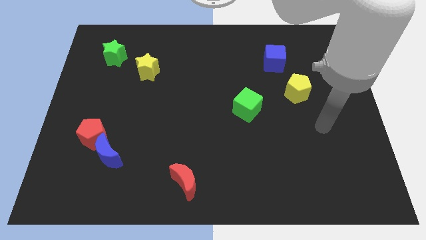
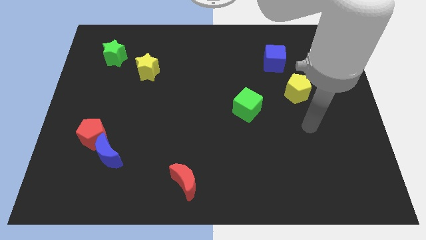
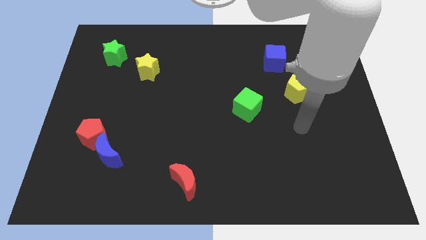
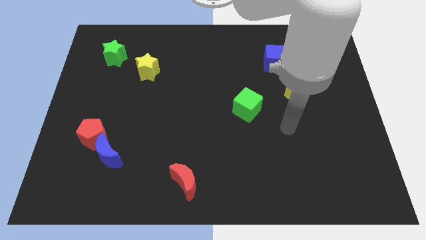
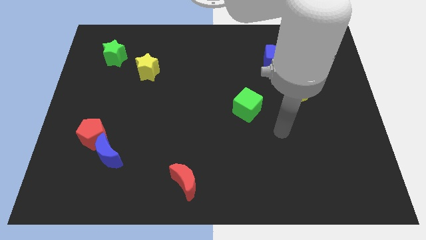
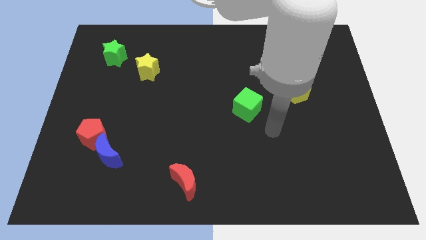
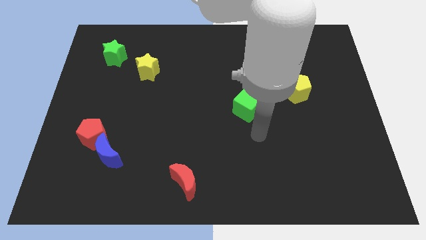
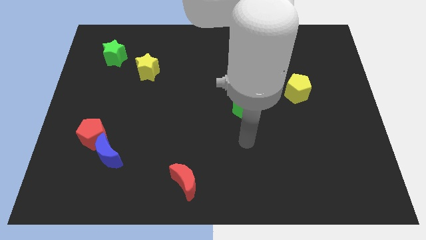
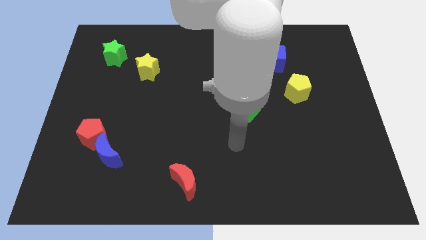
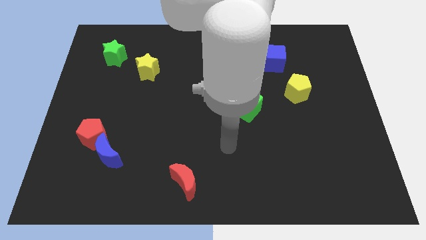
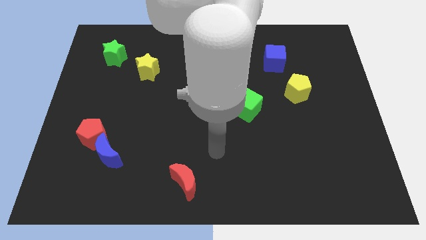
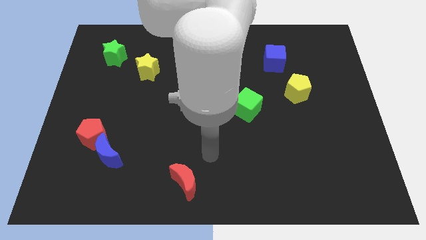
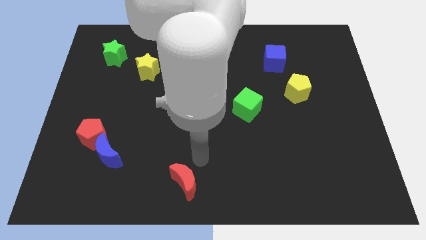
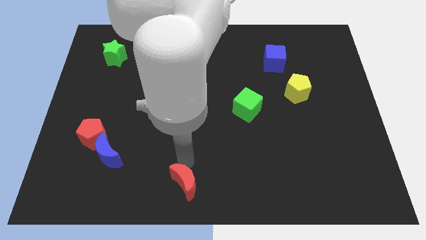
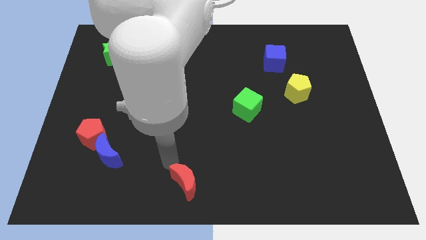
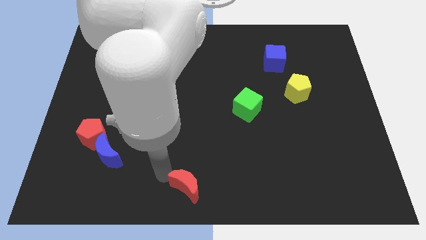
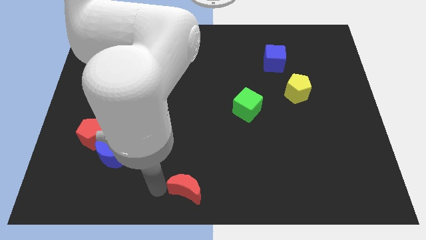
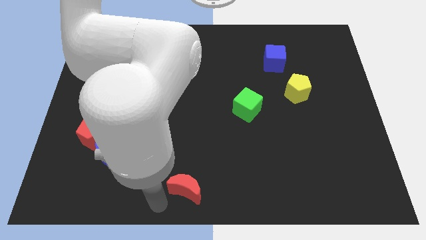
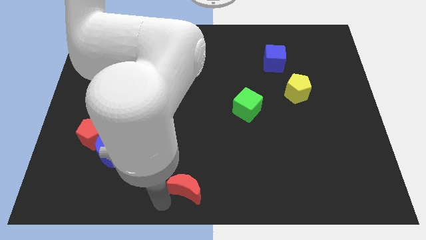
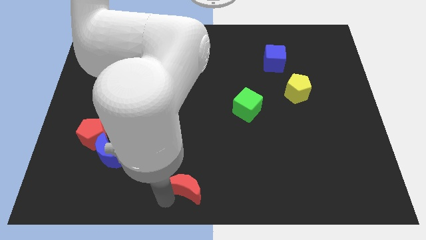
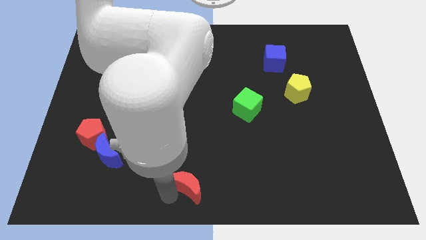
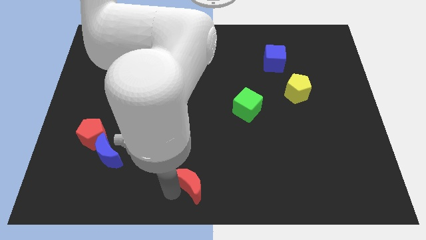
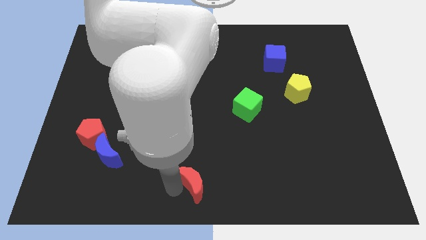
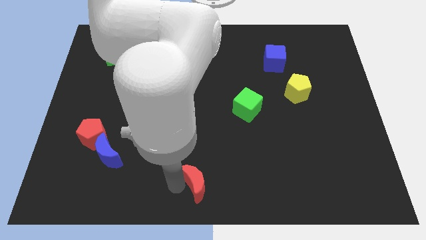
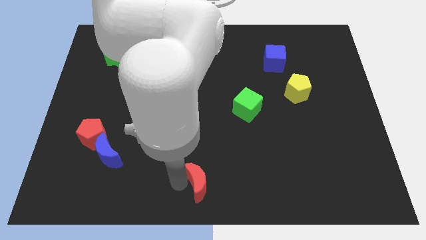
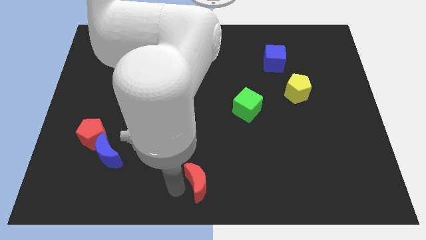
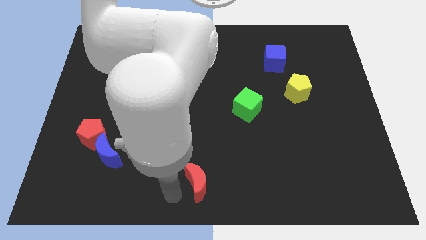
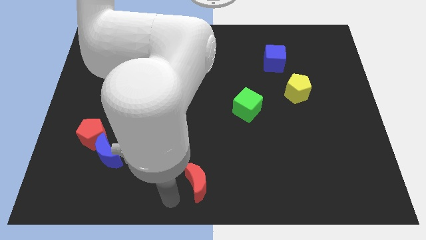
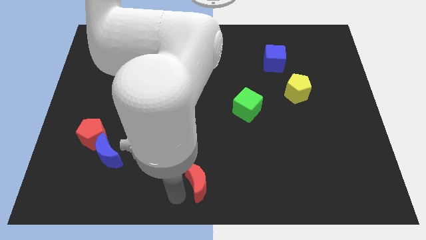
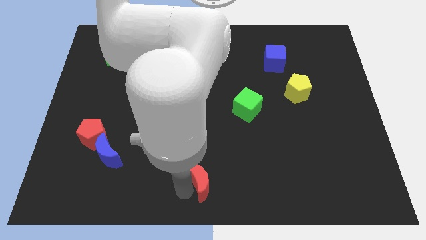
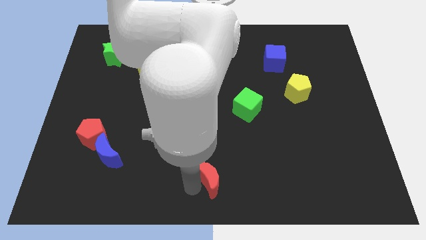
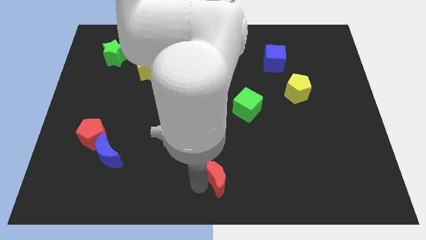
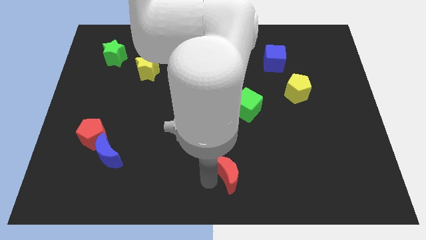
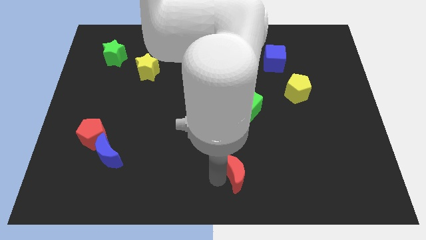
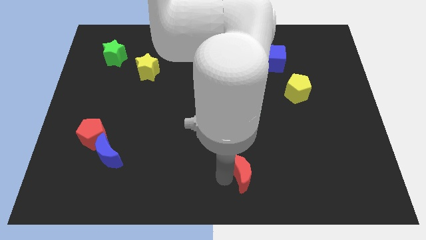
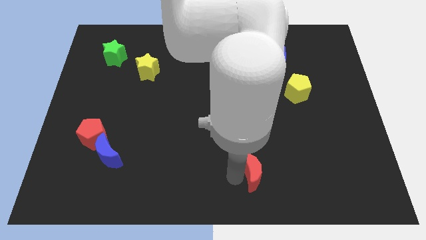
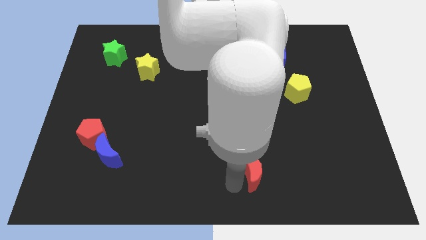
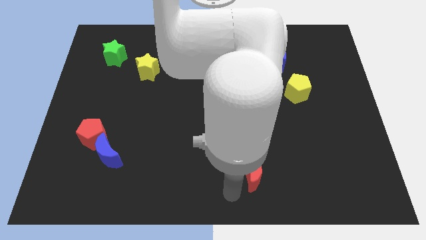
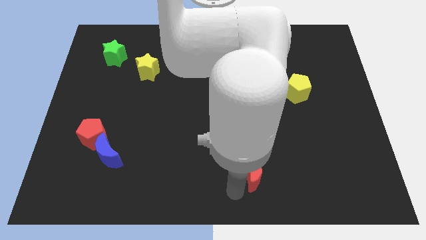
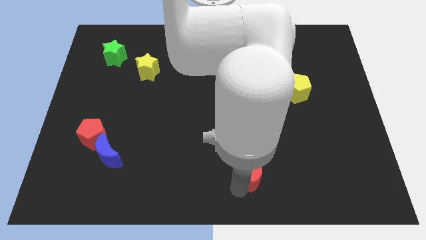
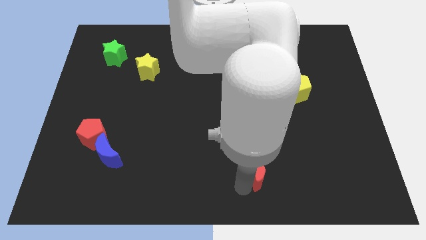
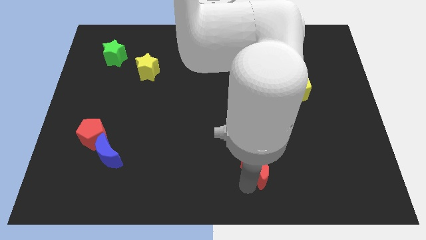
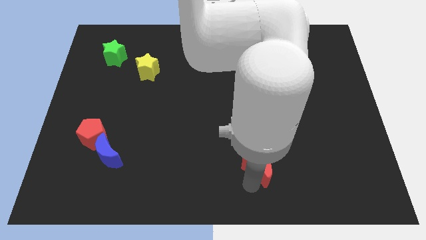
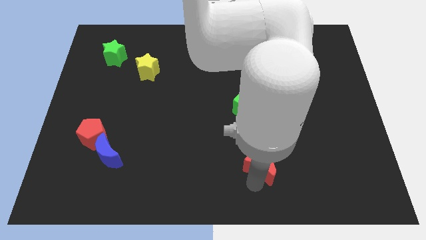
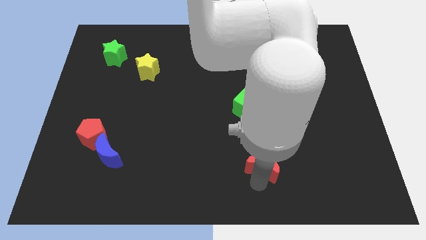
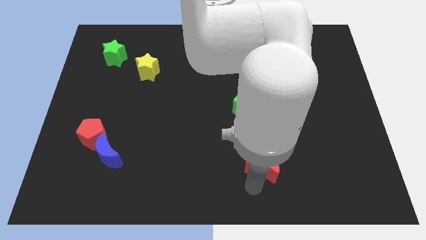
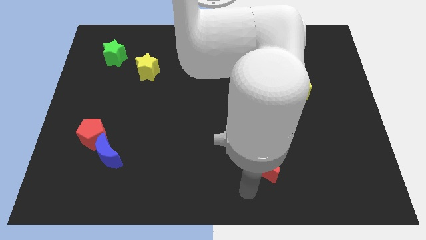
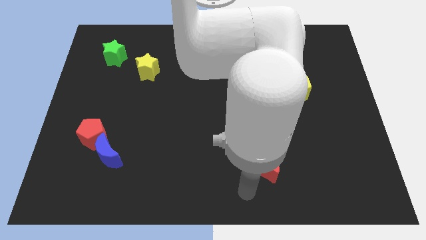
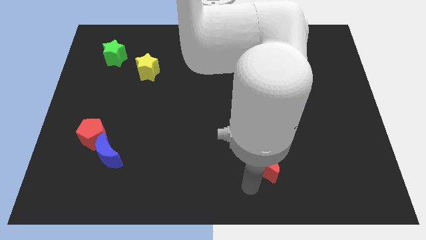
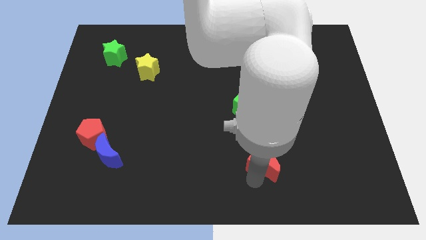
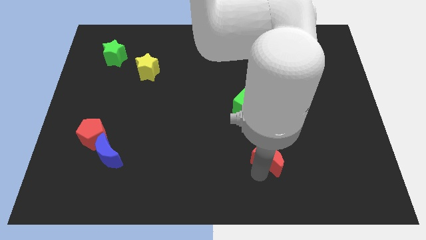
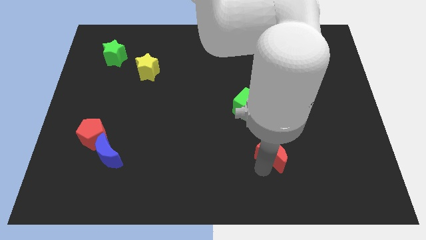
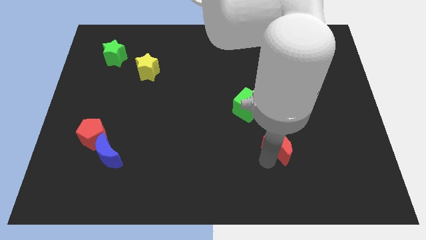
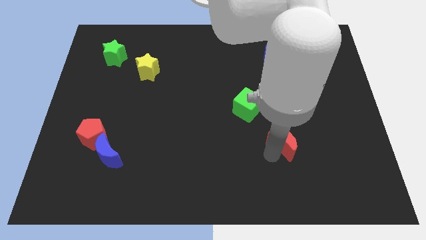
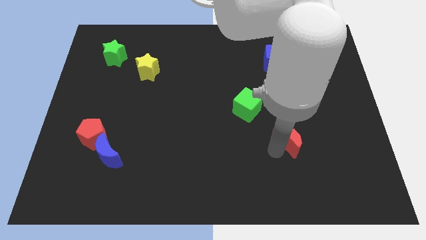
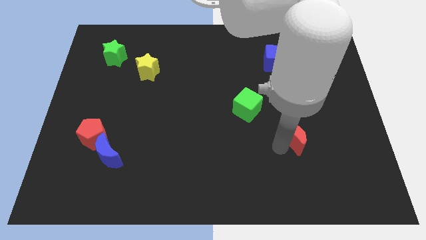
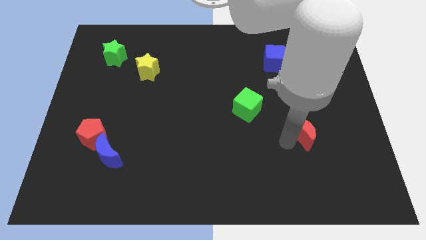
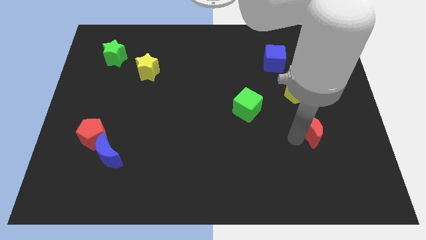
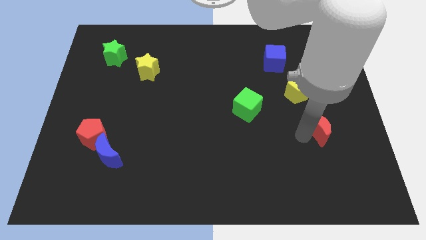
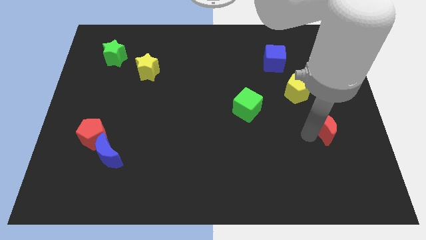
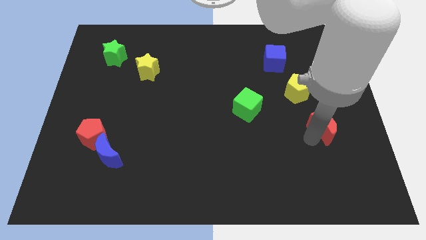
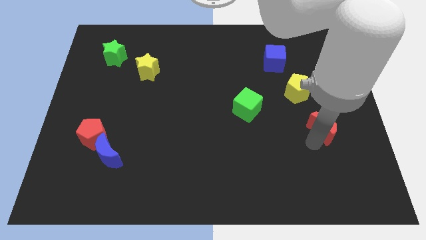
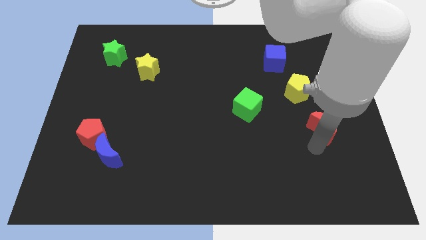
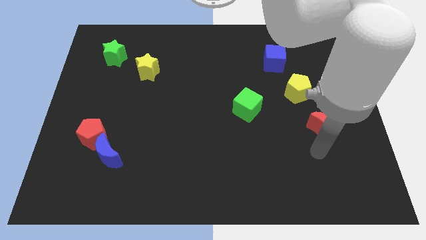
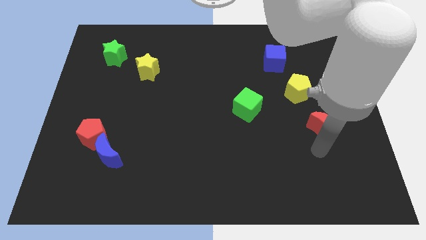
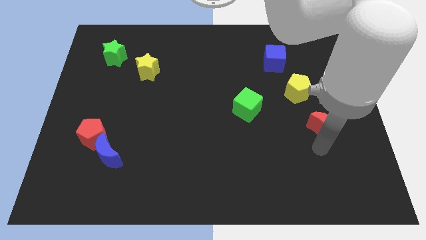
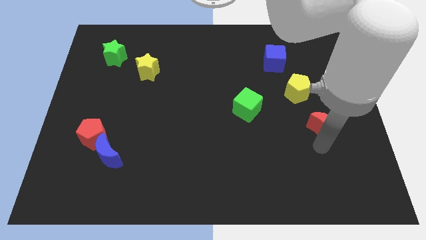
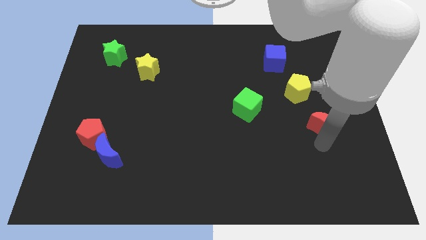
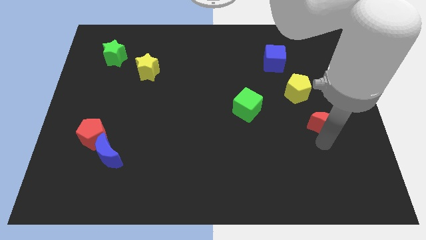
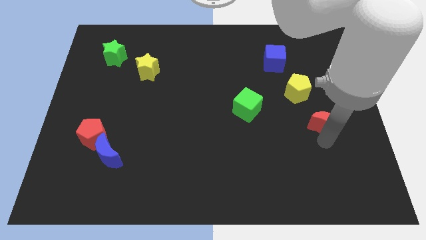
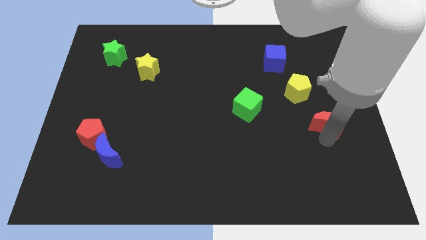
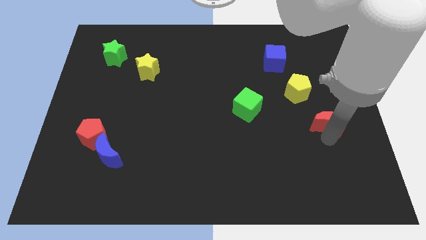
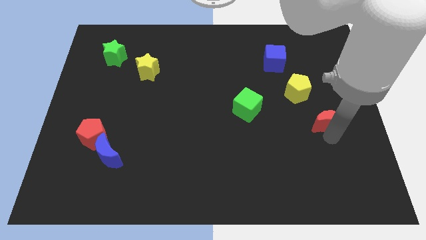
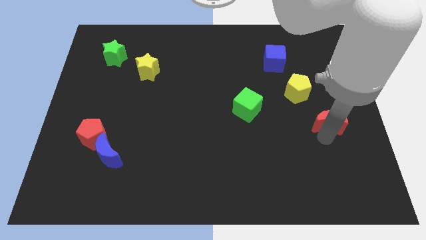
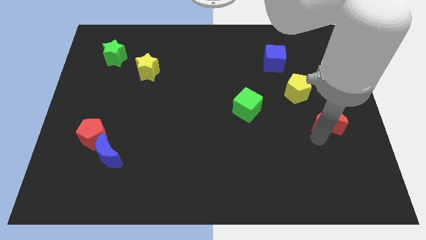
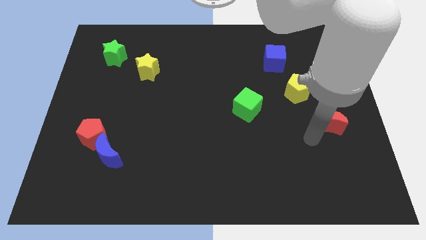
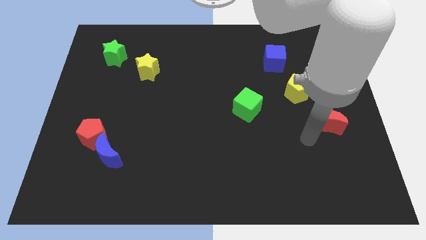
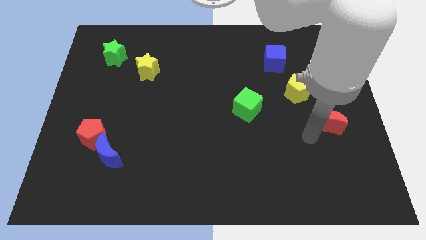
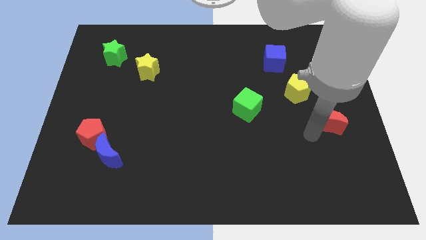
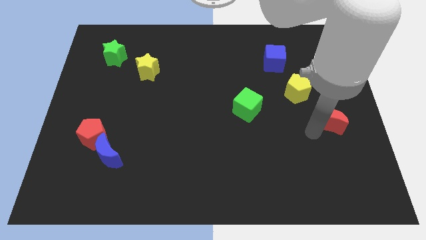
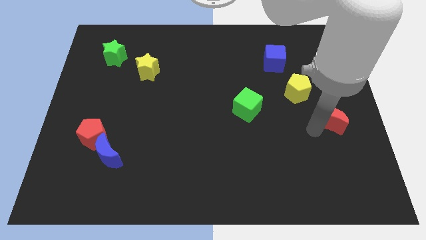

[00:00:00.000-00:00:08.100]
move the red moon to the center right
